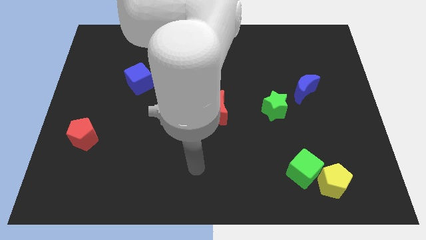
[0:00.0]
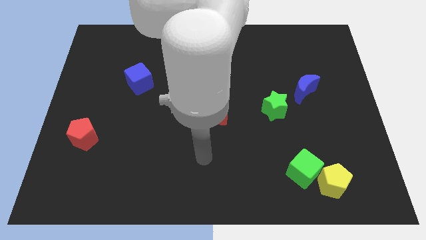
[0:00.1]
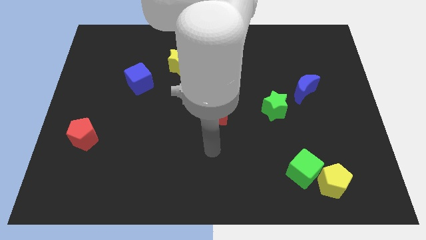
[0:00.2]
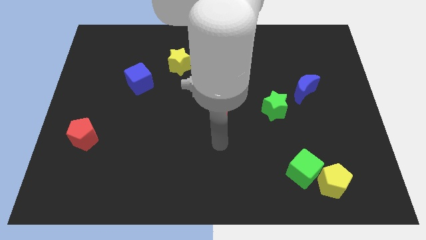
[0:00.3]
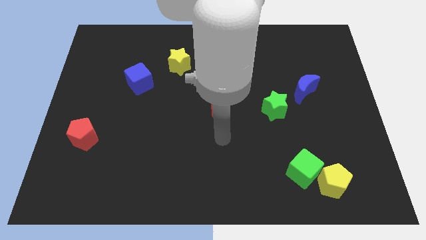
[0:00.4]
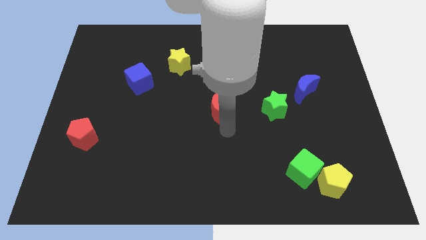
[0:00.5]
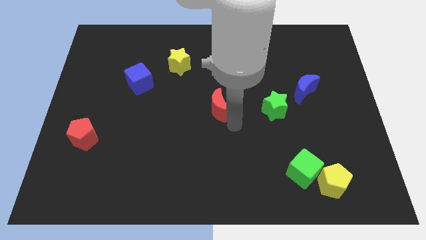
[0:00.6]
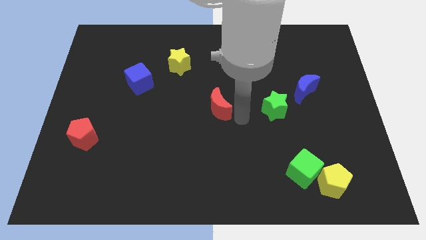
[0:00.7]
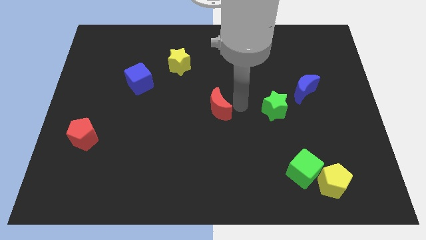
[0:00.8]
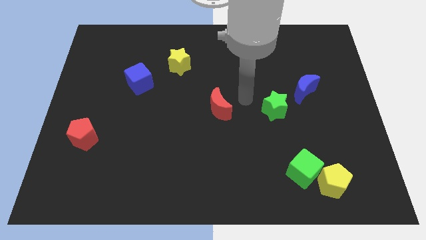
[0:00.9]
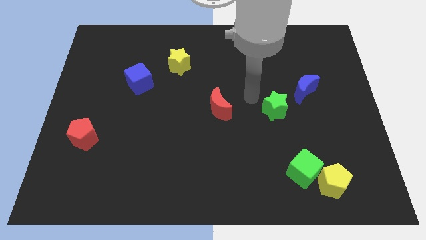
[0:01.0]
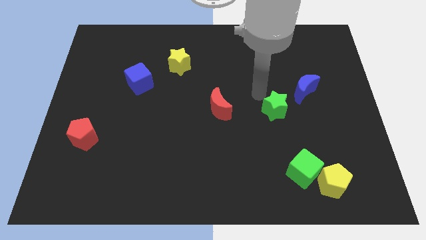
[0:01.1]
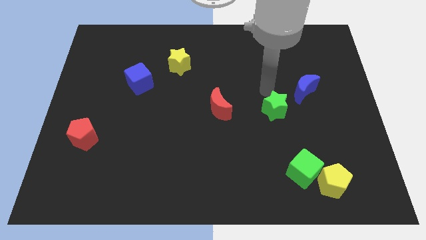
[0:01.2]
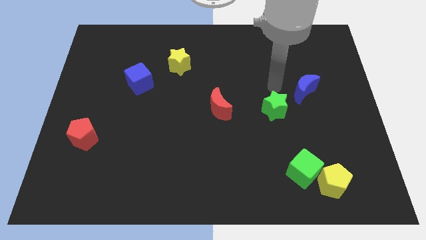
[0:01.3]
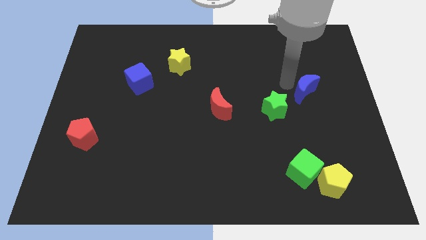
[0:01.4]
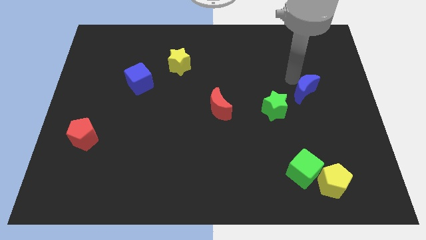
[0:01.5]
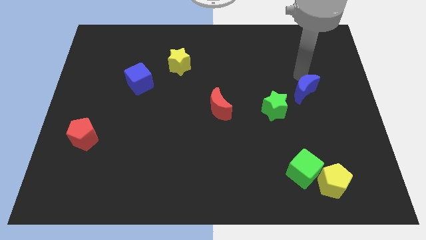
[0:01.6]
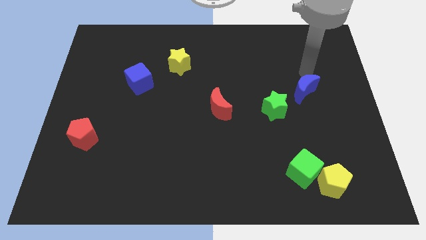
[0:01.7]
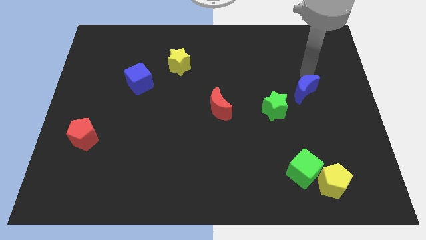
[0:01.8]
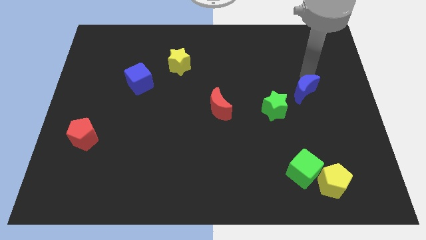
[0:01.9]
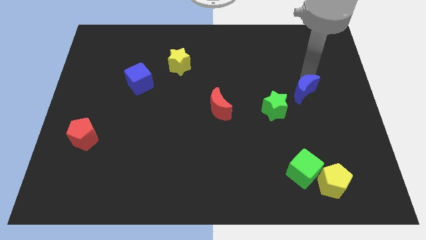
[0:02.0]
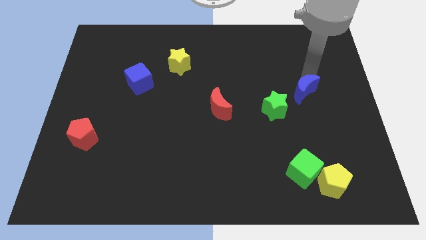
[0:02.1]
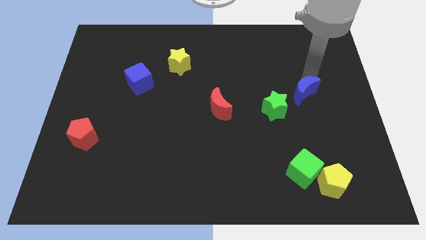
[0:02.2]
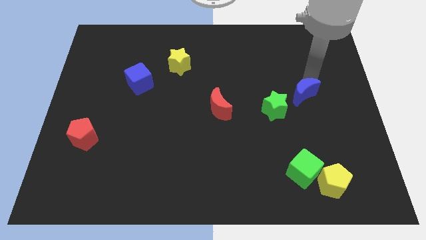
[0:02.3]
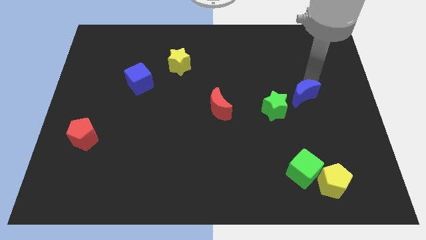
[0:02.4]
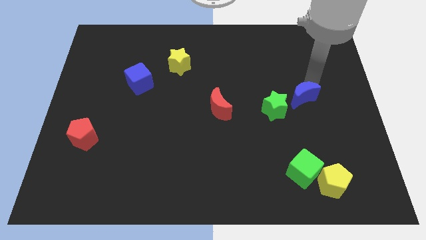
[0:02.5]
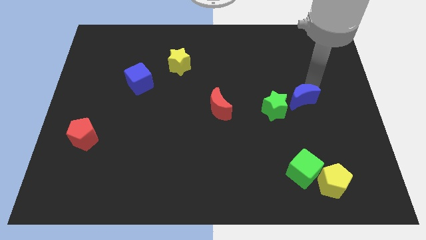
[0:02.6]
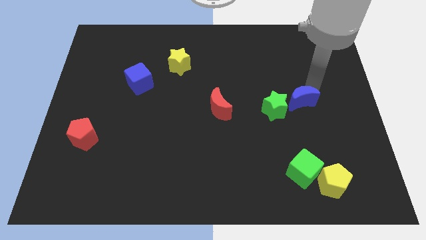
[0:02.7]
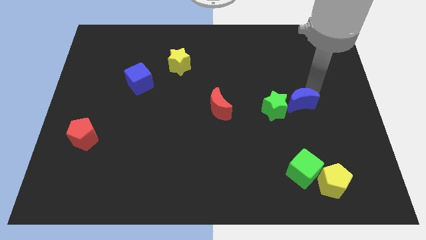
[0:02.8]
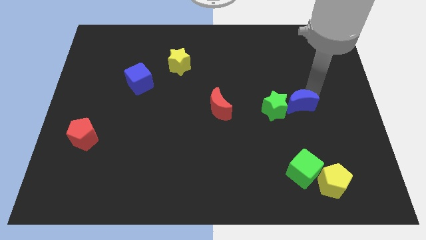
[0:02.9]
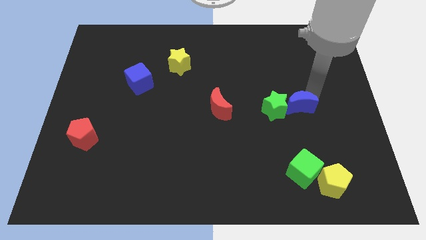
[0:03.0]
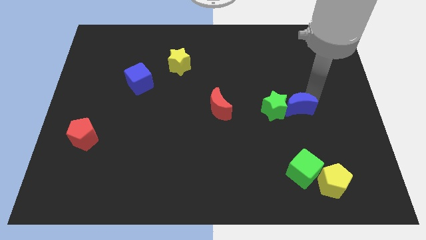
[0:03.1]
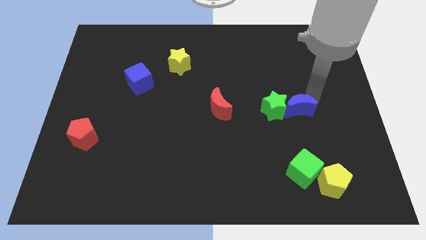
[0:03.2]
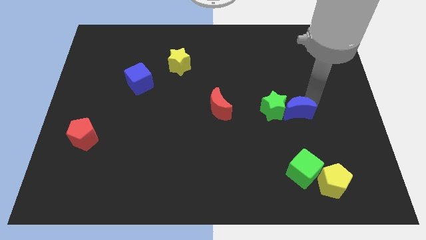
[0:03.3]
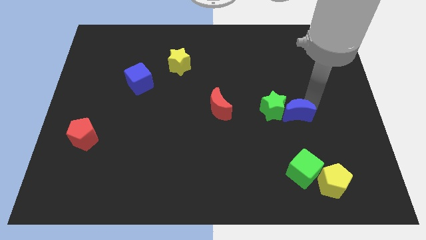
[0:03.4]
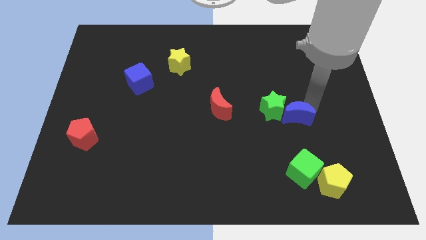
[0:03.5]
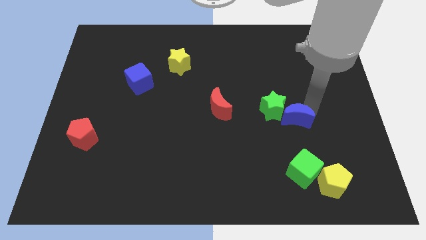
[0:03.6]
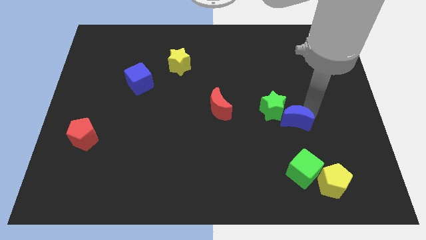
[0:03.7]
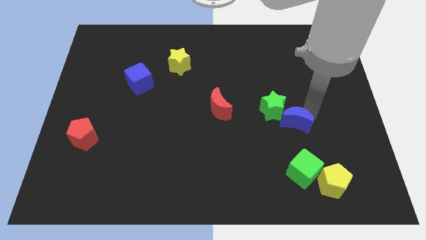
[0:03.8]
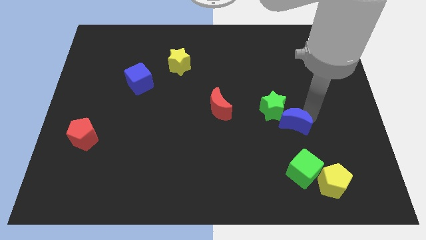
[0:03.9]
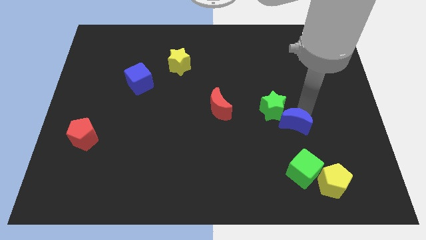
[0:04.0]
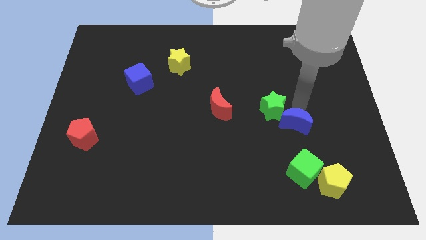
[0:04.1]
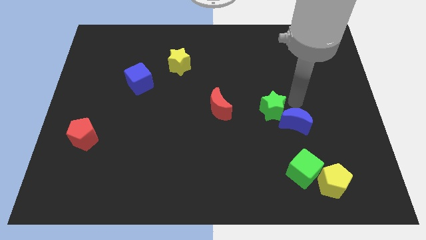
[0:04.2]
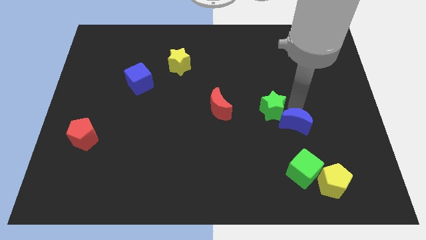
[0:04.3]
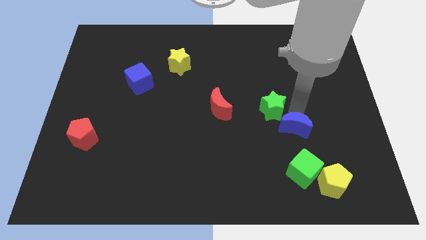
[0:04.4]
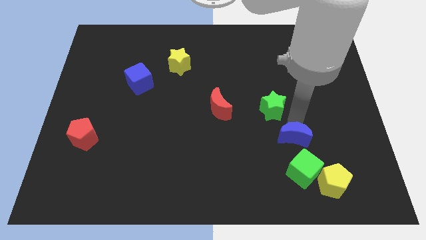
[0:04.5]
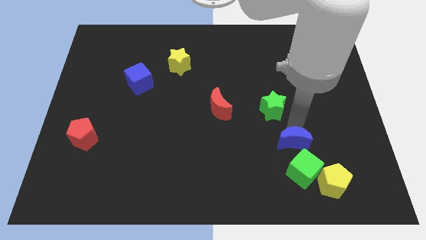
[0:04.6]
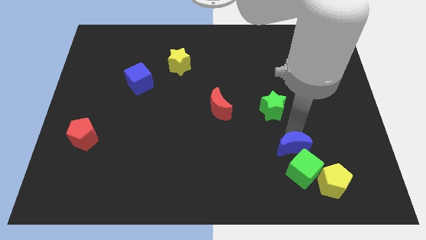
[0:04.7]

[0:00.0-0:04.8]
push the blue moon close to the green cube

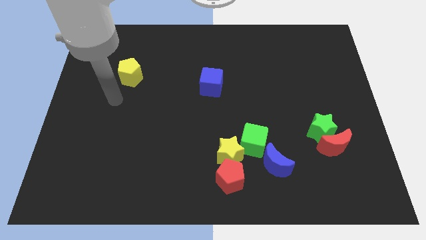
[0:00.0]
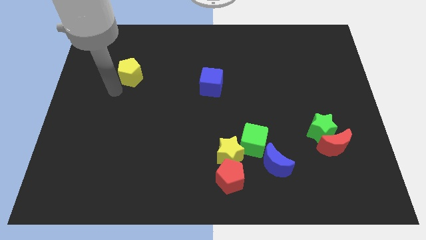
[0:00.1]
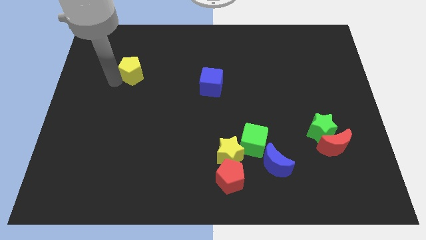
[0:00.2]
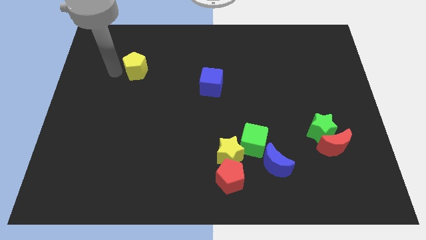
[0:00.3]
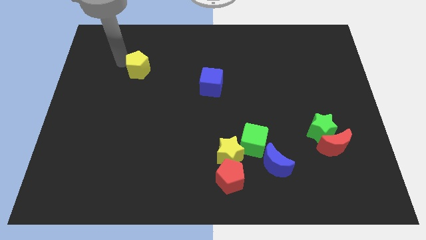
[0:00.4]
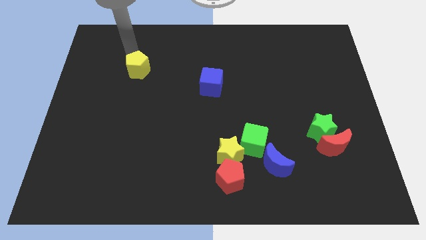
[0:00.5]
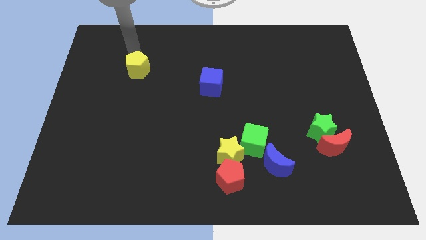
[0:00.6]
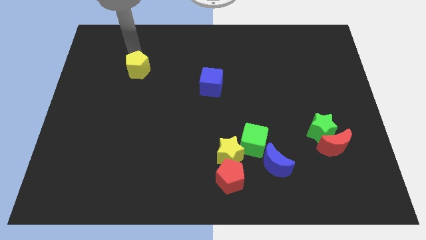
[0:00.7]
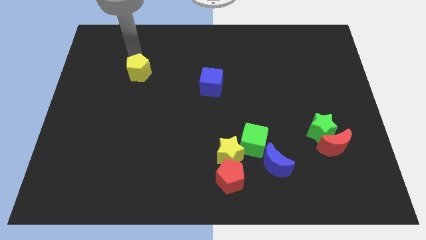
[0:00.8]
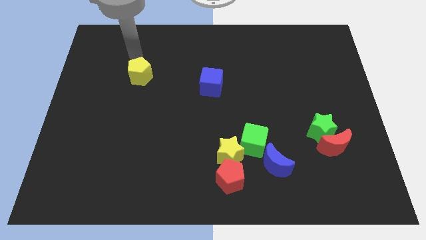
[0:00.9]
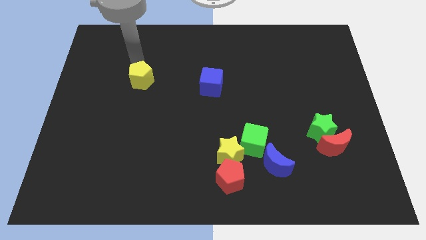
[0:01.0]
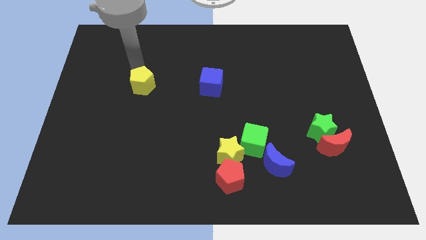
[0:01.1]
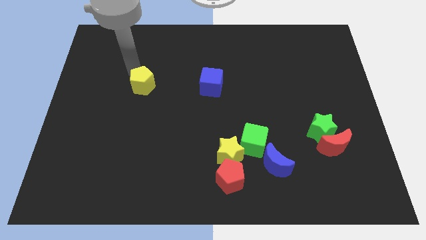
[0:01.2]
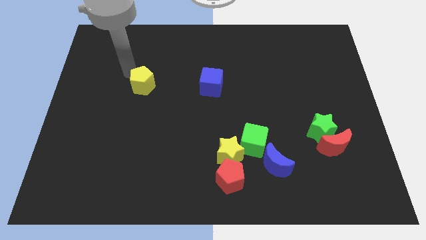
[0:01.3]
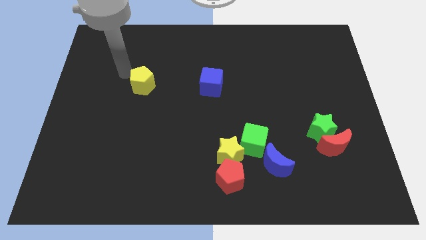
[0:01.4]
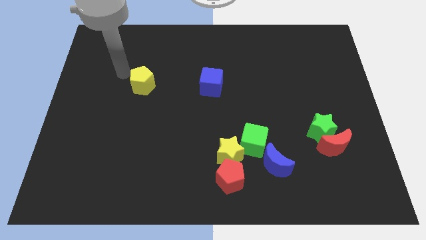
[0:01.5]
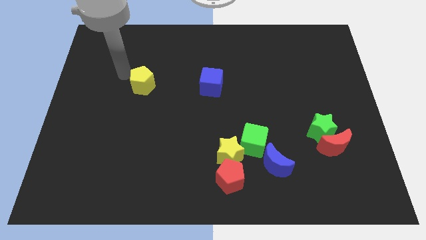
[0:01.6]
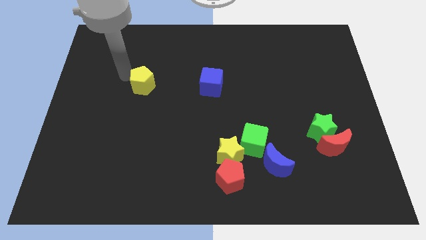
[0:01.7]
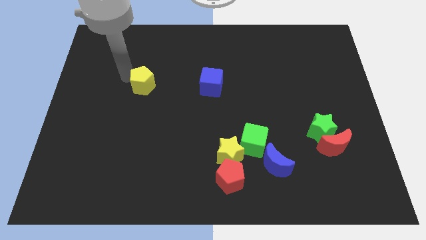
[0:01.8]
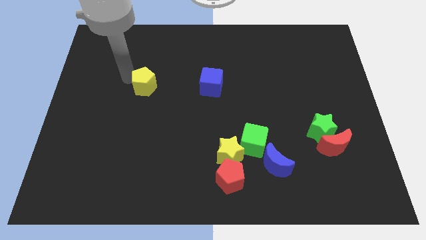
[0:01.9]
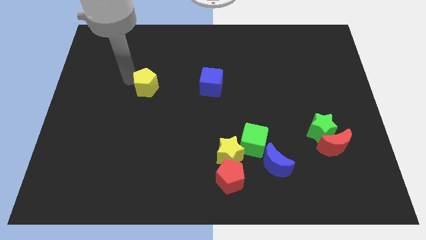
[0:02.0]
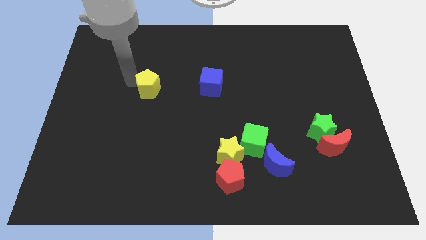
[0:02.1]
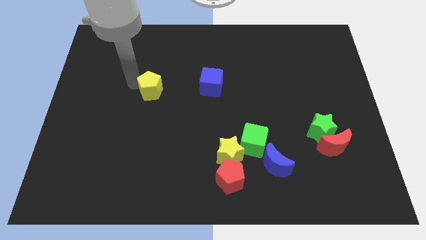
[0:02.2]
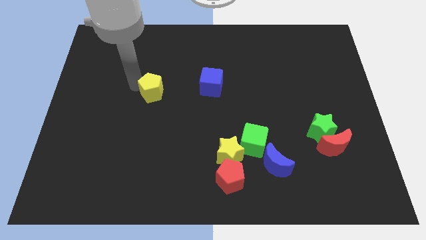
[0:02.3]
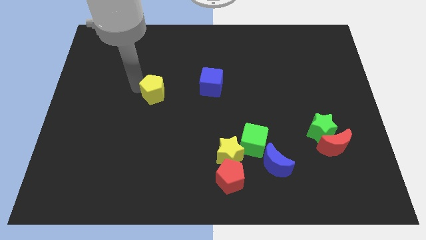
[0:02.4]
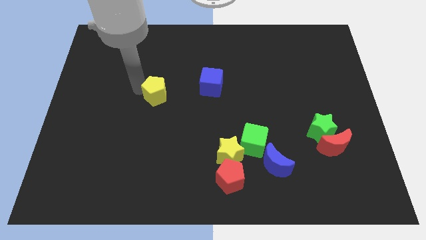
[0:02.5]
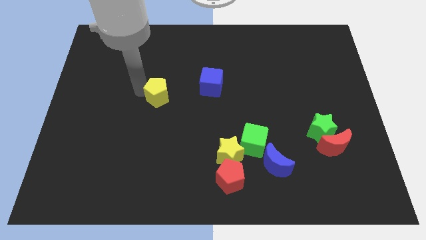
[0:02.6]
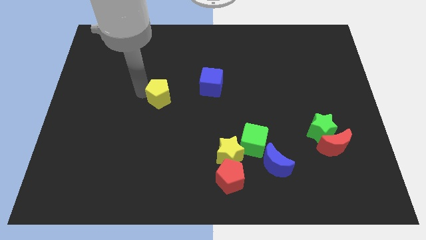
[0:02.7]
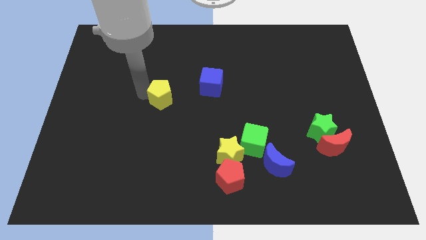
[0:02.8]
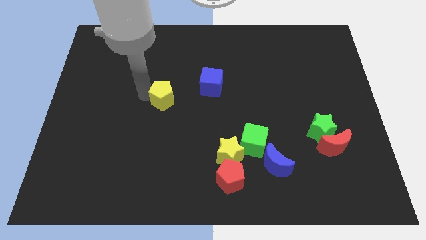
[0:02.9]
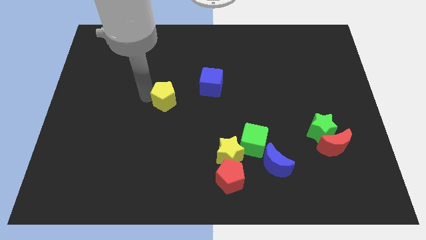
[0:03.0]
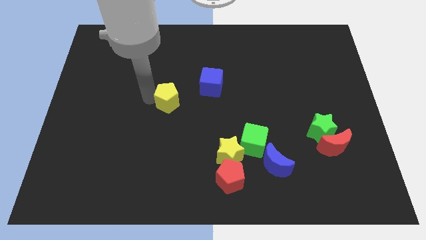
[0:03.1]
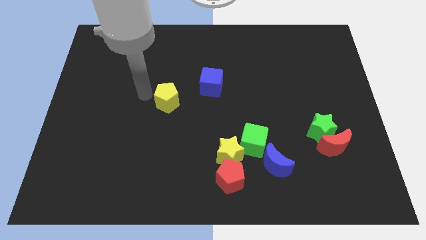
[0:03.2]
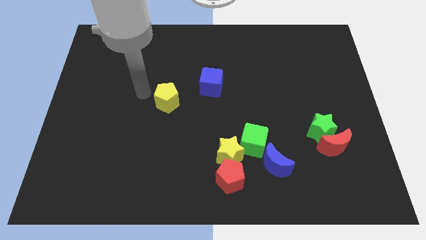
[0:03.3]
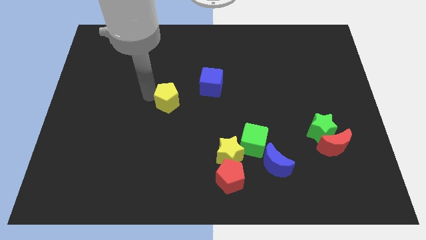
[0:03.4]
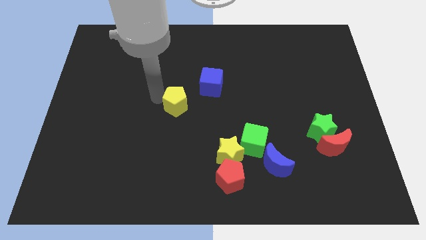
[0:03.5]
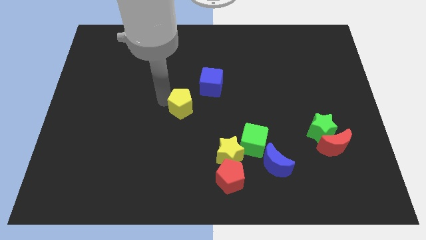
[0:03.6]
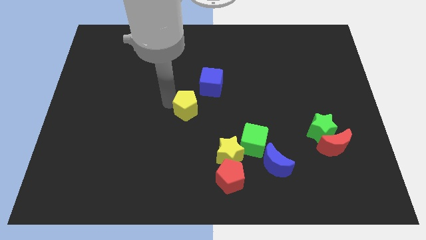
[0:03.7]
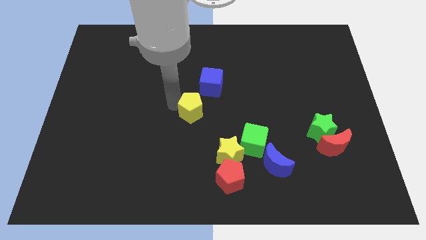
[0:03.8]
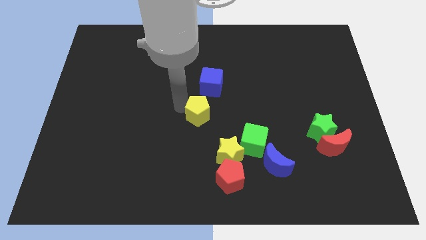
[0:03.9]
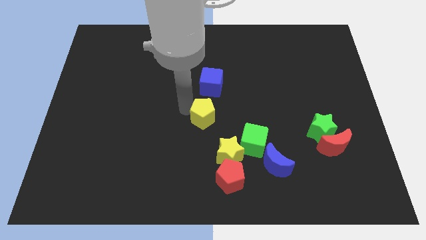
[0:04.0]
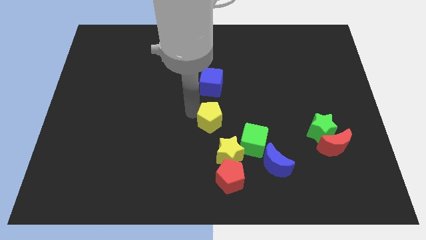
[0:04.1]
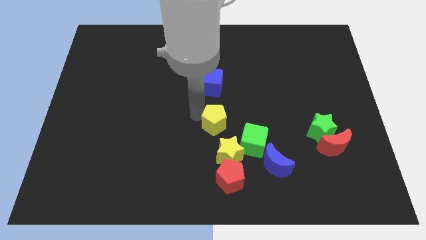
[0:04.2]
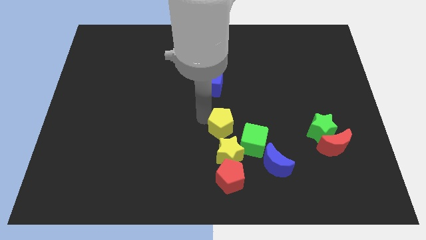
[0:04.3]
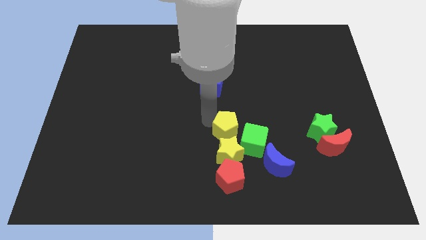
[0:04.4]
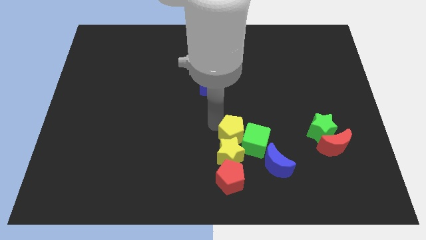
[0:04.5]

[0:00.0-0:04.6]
move the yellow pentagon next to the green cube
